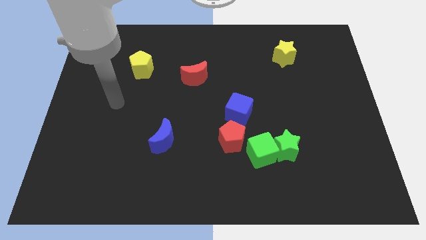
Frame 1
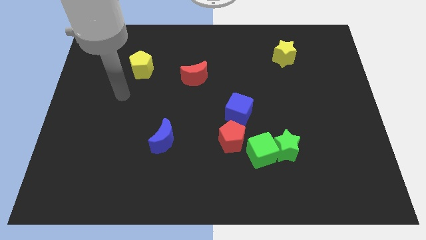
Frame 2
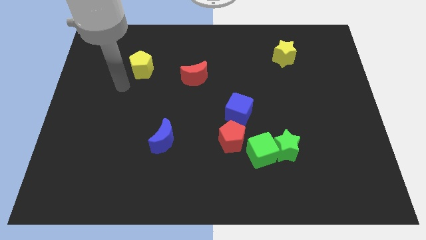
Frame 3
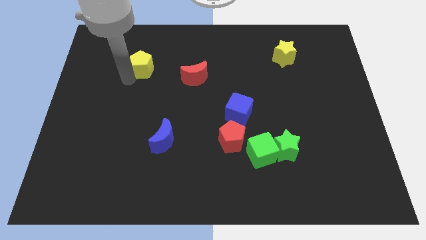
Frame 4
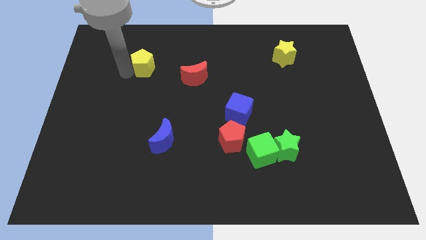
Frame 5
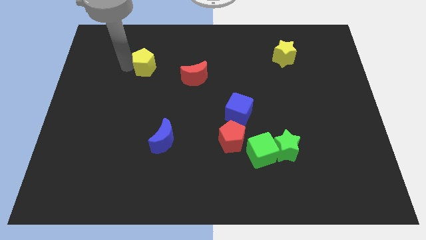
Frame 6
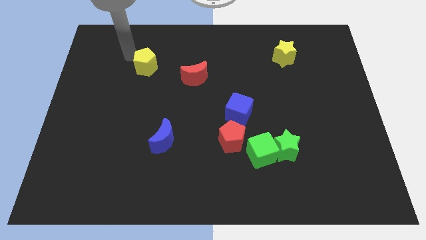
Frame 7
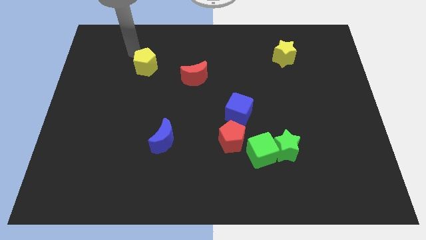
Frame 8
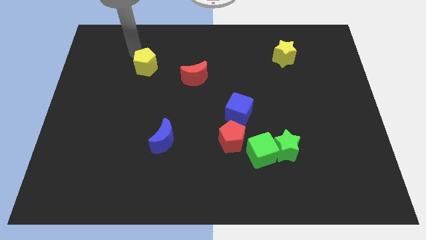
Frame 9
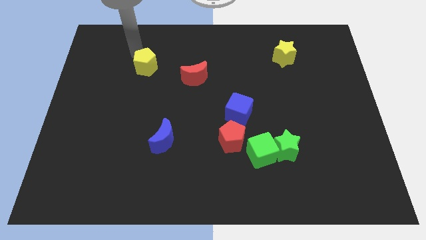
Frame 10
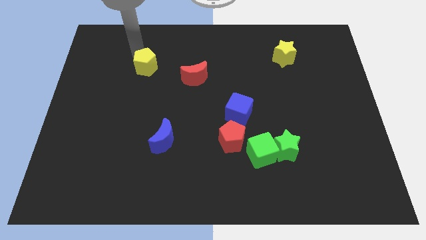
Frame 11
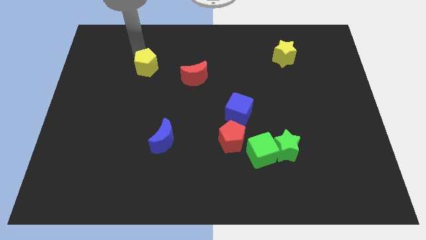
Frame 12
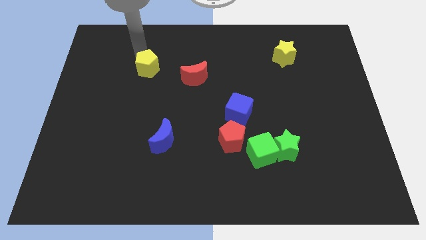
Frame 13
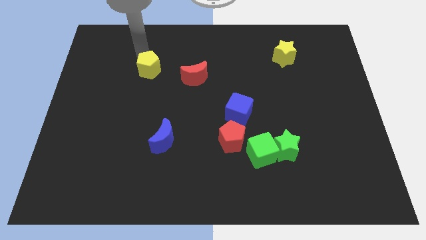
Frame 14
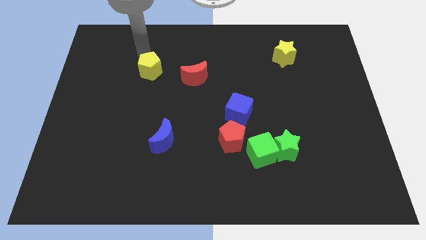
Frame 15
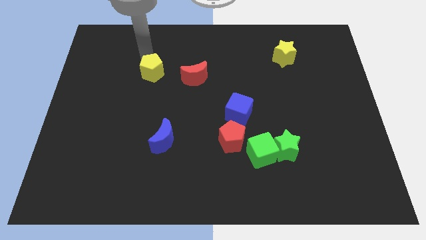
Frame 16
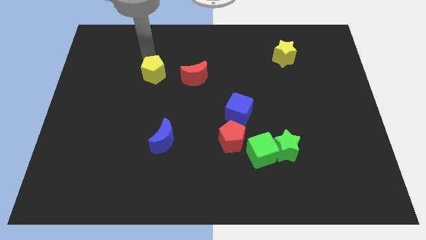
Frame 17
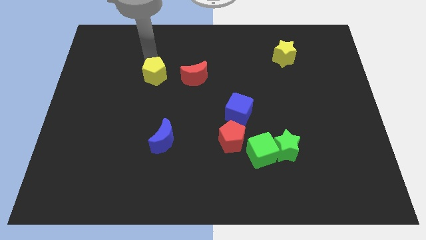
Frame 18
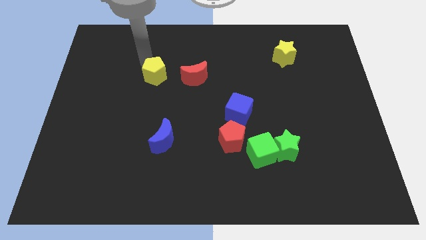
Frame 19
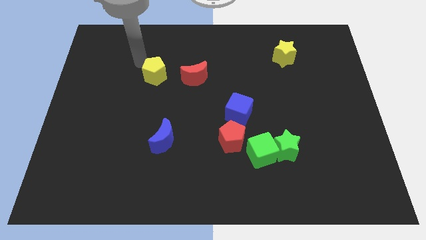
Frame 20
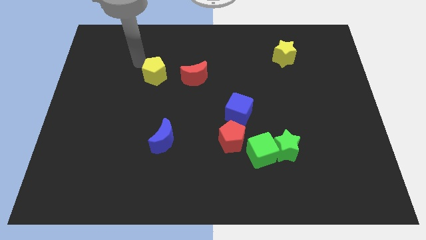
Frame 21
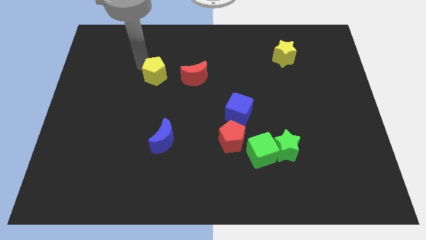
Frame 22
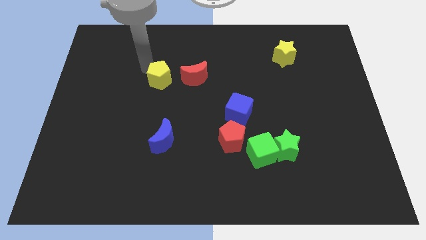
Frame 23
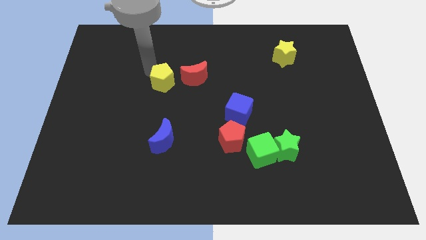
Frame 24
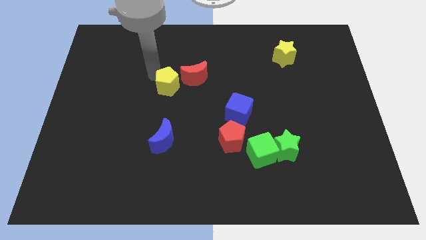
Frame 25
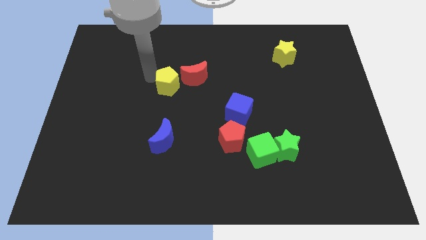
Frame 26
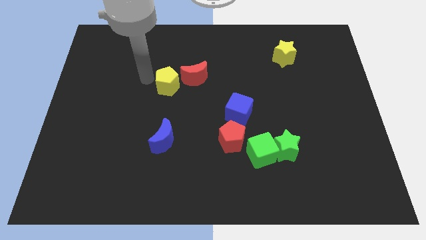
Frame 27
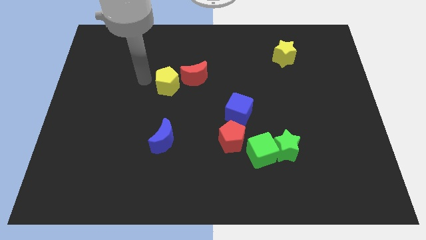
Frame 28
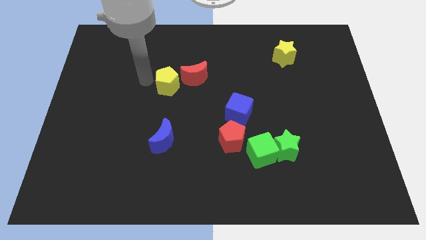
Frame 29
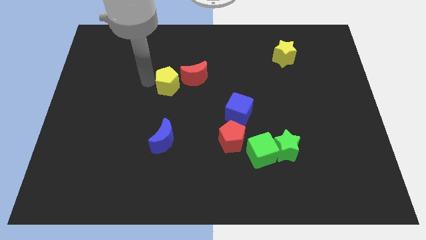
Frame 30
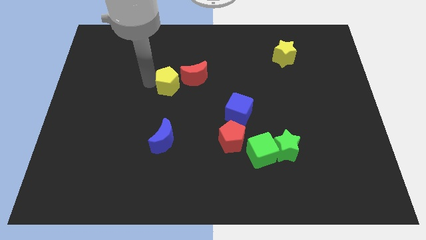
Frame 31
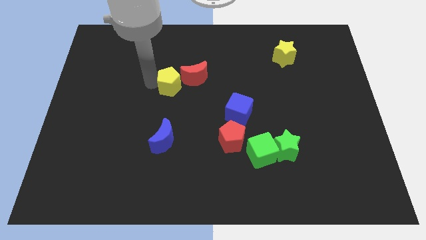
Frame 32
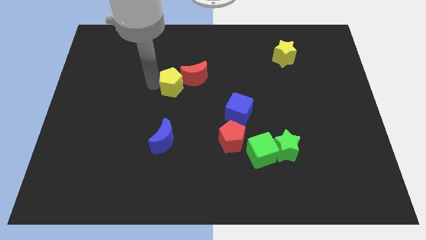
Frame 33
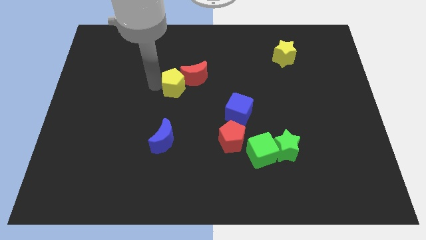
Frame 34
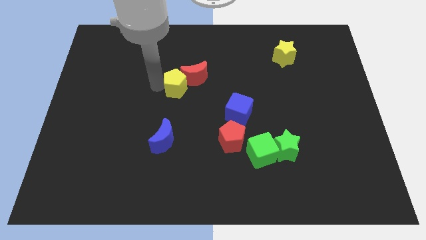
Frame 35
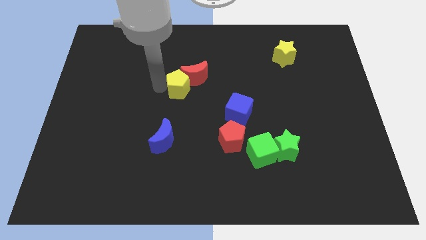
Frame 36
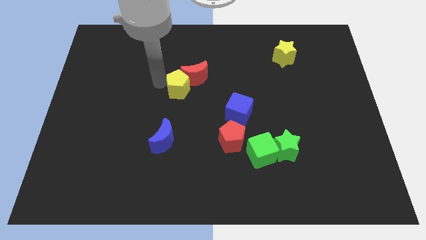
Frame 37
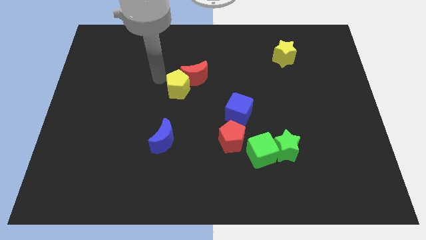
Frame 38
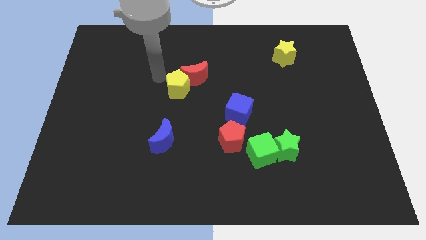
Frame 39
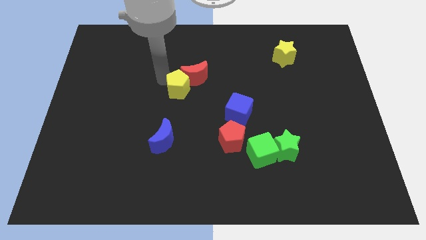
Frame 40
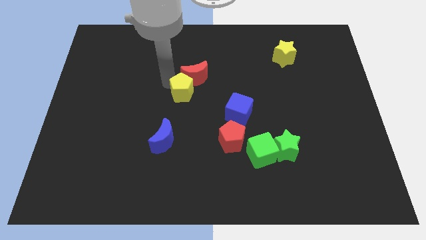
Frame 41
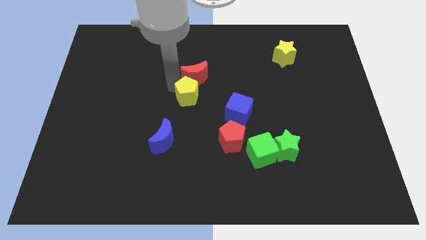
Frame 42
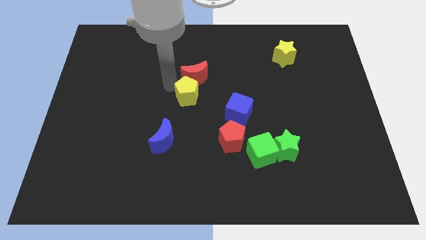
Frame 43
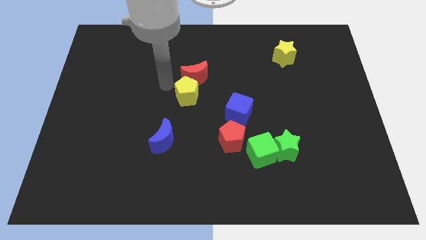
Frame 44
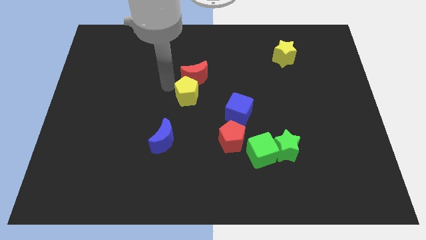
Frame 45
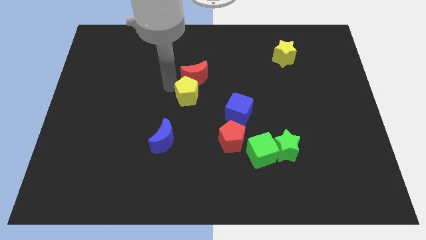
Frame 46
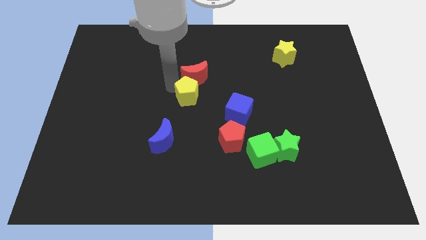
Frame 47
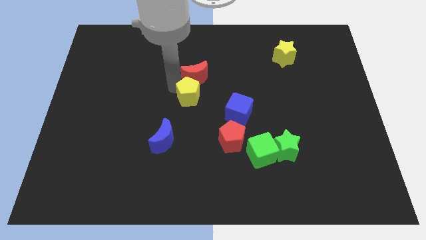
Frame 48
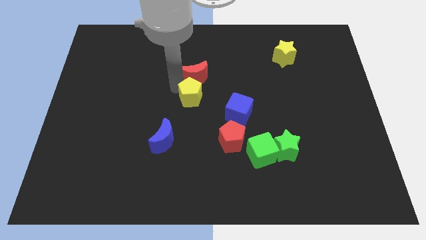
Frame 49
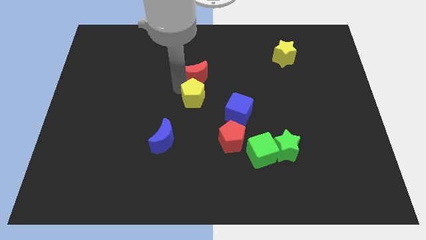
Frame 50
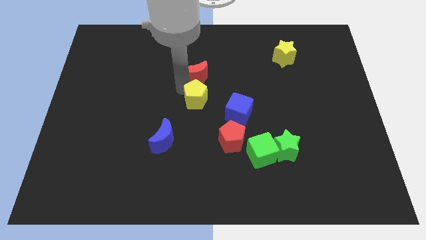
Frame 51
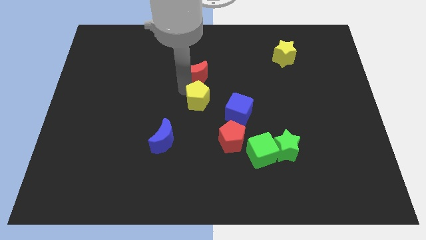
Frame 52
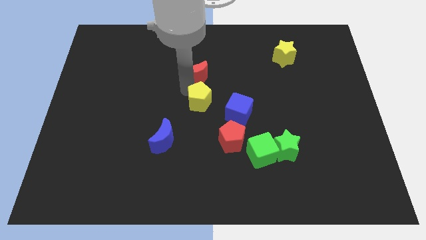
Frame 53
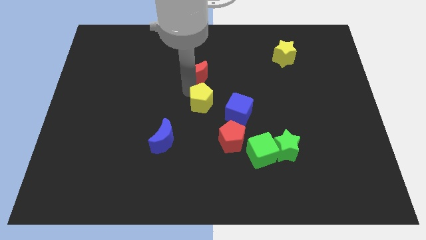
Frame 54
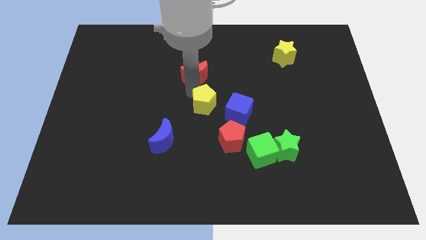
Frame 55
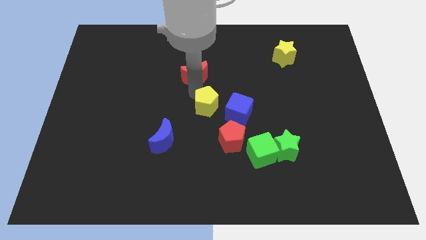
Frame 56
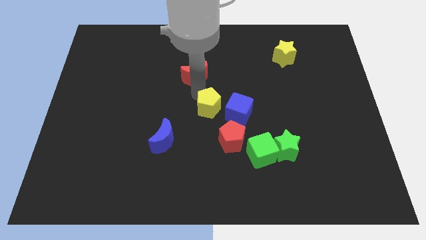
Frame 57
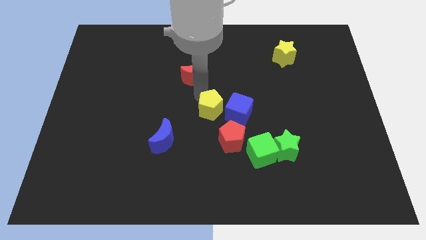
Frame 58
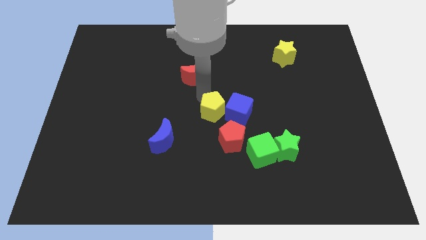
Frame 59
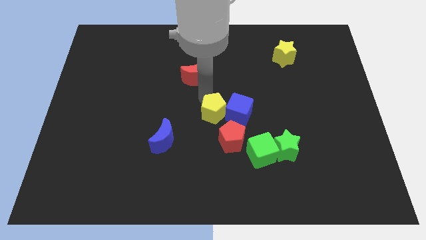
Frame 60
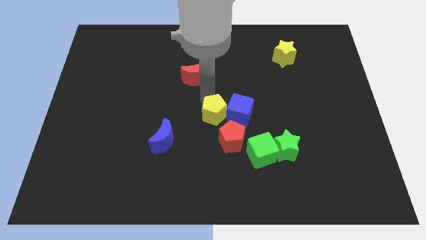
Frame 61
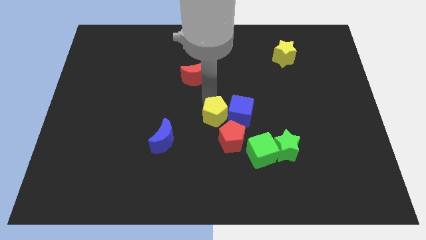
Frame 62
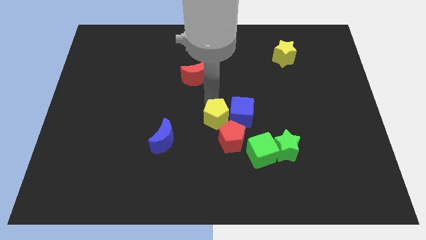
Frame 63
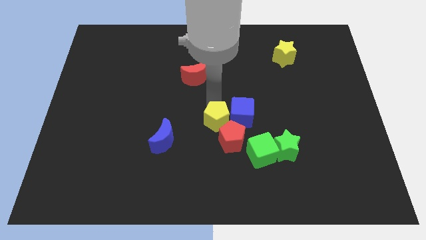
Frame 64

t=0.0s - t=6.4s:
put the yellow pentagon to the red pentagon
